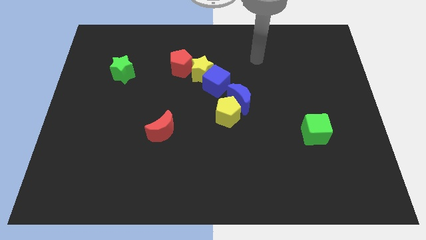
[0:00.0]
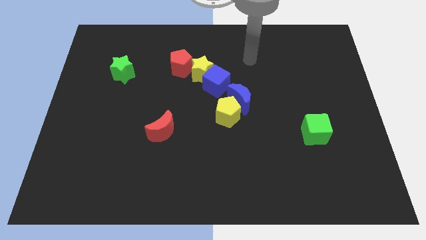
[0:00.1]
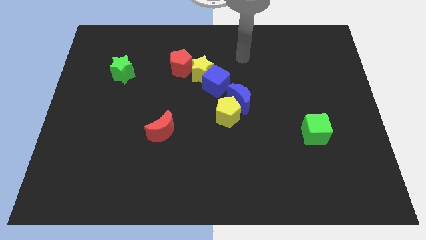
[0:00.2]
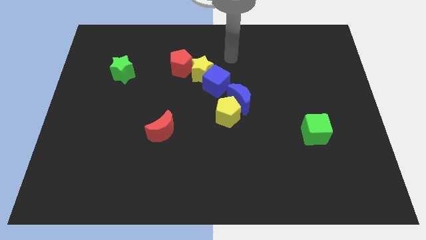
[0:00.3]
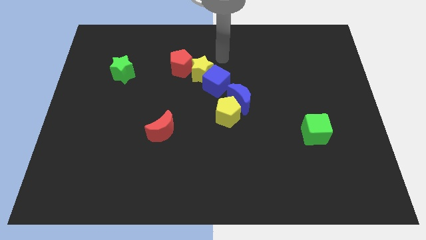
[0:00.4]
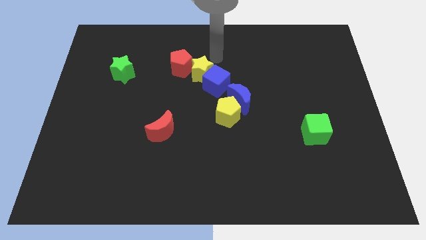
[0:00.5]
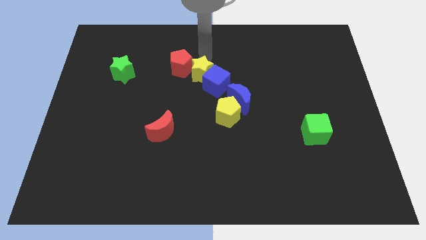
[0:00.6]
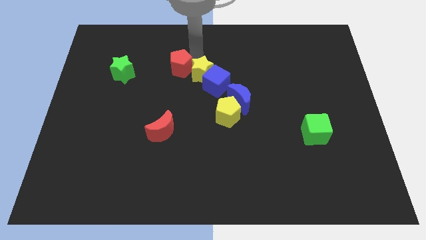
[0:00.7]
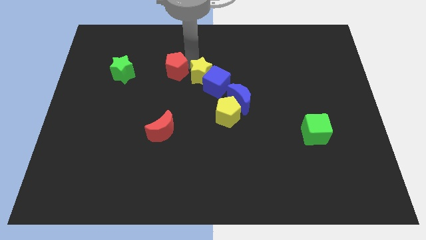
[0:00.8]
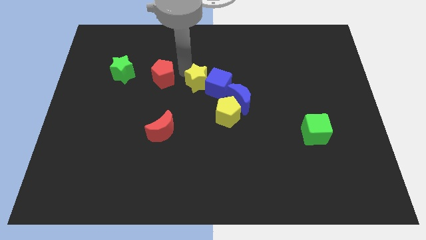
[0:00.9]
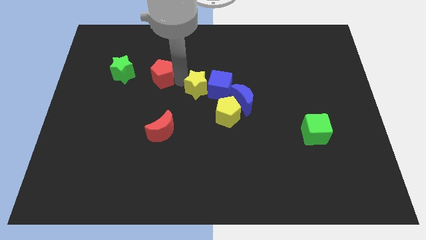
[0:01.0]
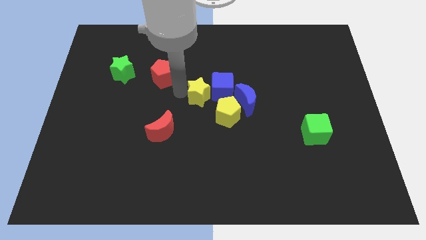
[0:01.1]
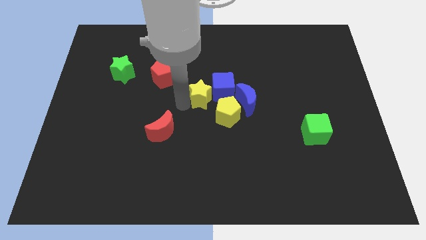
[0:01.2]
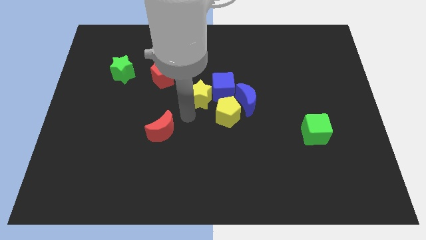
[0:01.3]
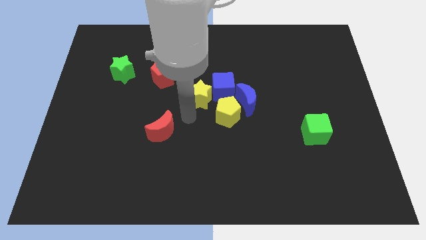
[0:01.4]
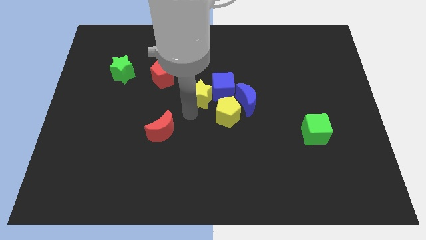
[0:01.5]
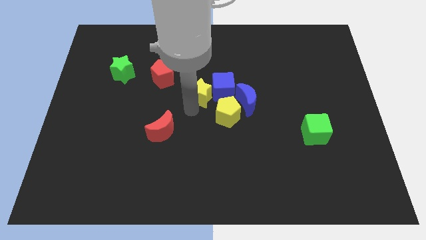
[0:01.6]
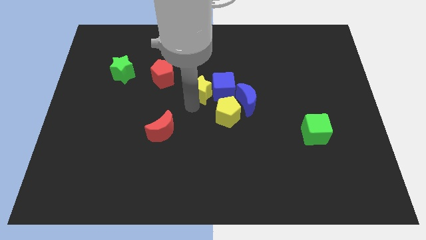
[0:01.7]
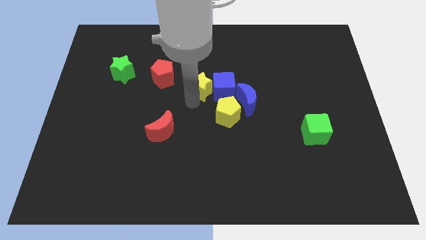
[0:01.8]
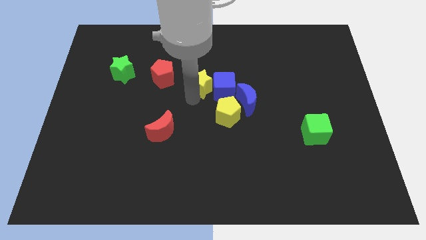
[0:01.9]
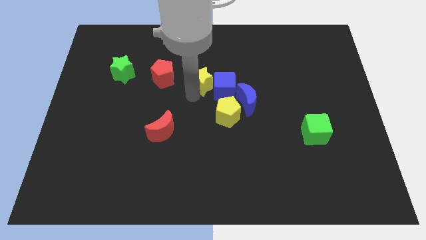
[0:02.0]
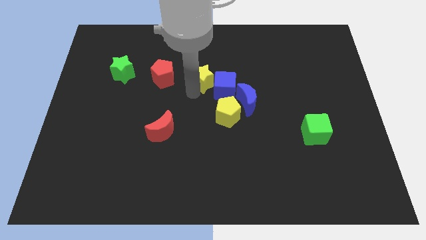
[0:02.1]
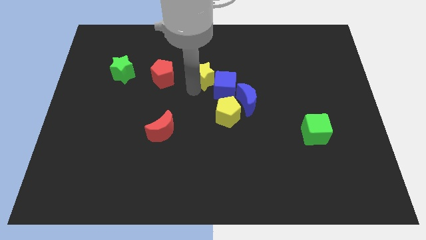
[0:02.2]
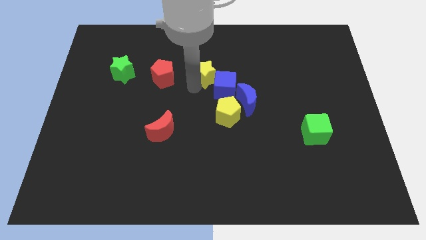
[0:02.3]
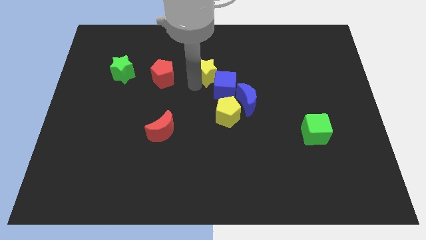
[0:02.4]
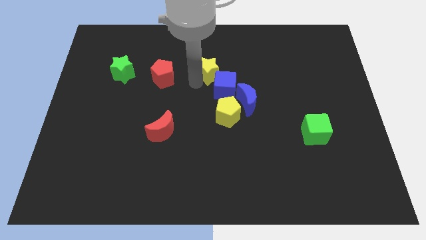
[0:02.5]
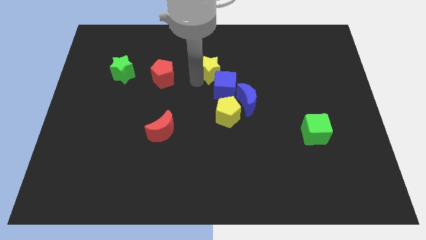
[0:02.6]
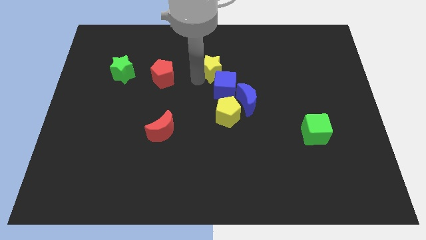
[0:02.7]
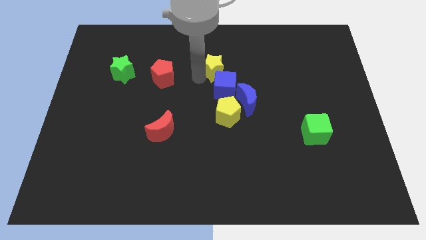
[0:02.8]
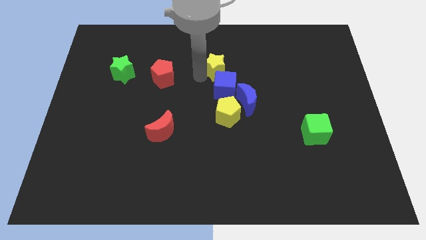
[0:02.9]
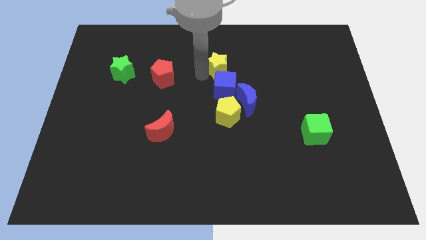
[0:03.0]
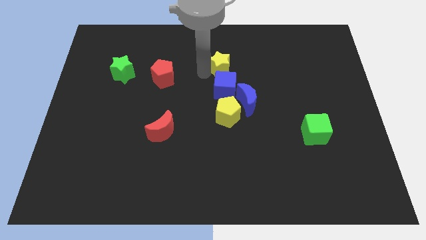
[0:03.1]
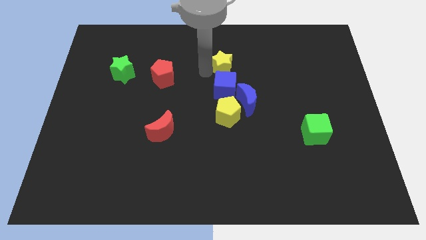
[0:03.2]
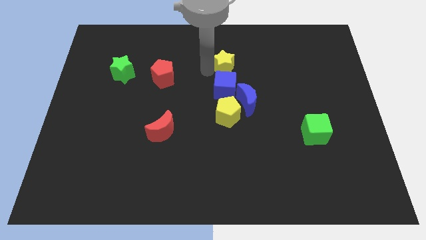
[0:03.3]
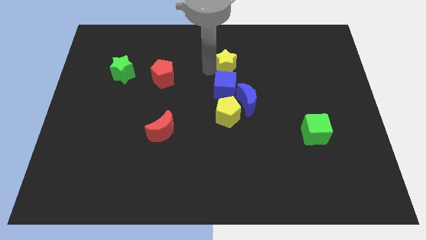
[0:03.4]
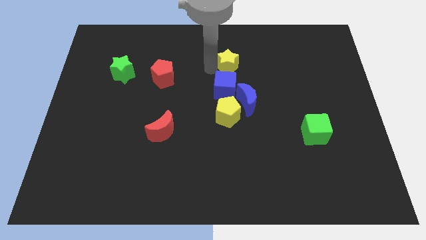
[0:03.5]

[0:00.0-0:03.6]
move the yellow star away from the blue cube and red pentagon

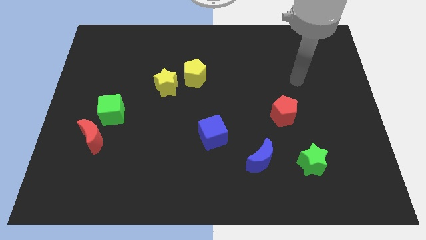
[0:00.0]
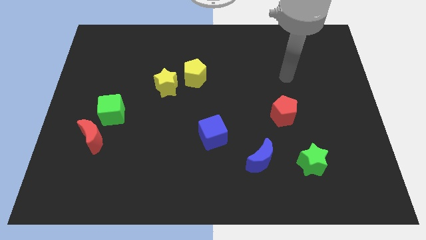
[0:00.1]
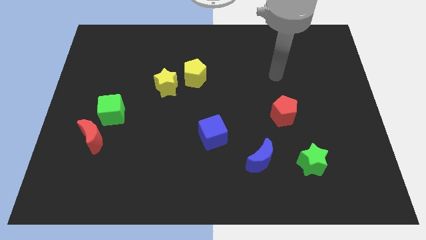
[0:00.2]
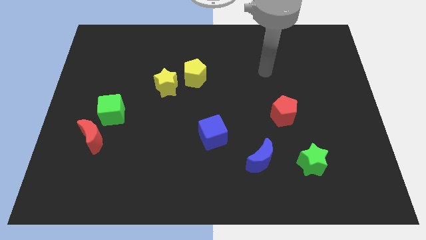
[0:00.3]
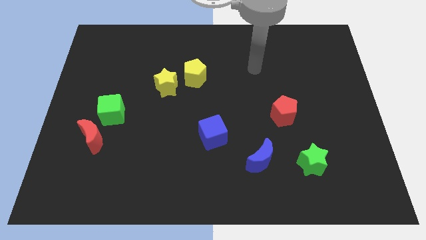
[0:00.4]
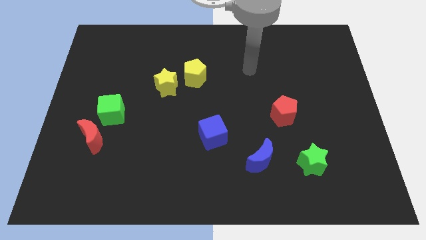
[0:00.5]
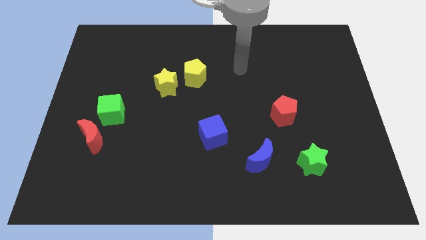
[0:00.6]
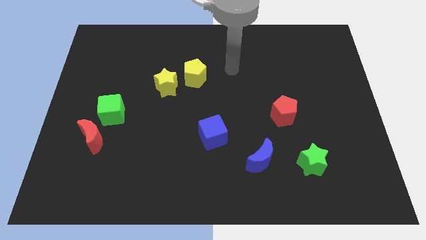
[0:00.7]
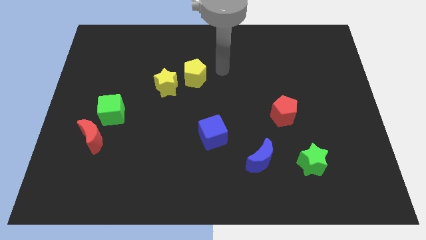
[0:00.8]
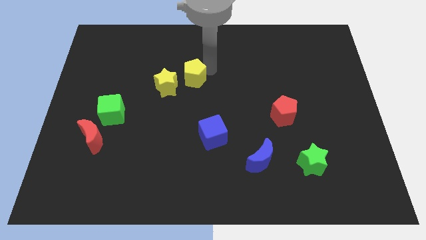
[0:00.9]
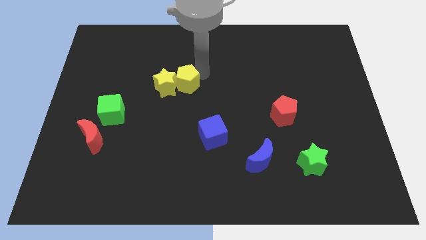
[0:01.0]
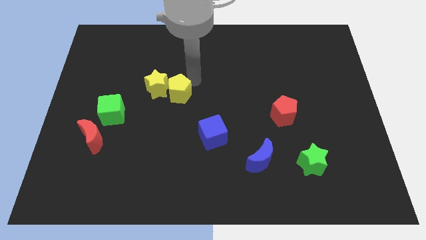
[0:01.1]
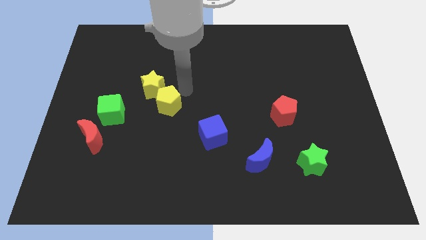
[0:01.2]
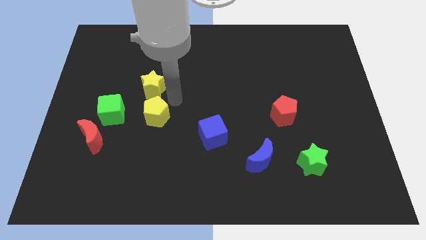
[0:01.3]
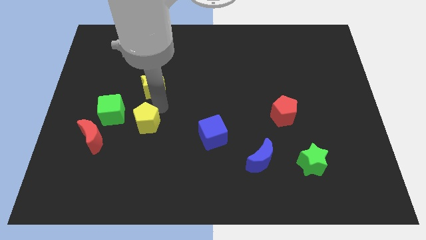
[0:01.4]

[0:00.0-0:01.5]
move the yellow star away from the yellow pentagon

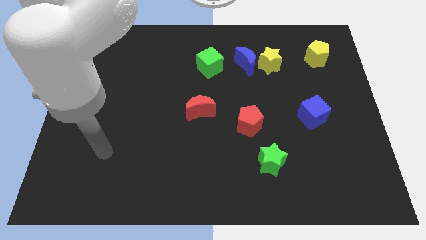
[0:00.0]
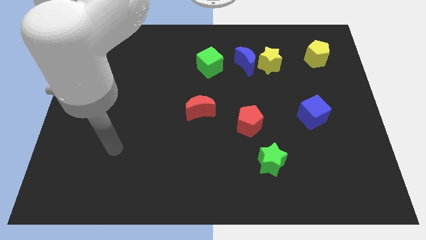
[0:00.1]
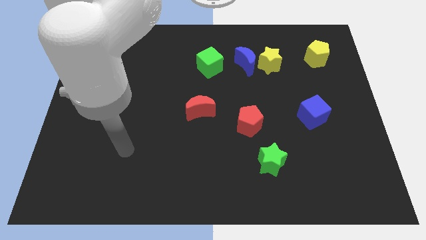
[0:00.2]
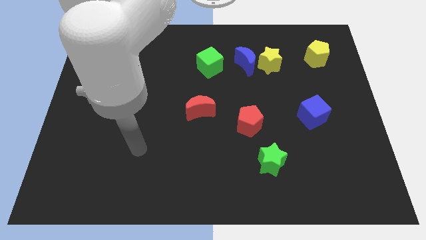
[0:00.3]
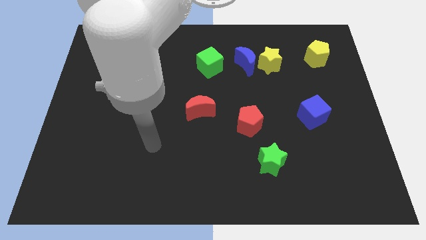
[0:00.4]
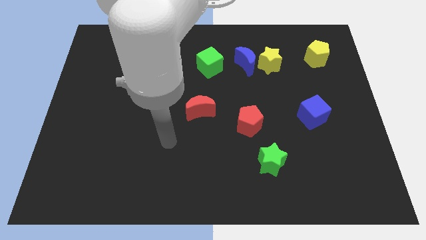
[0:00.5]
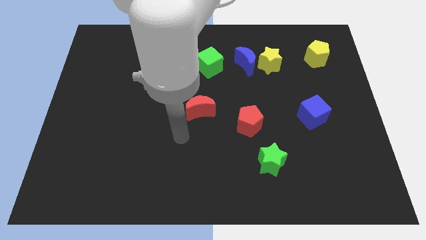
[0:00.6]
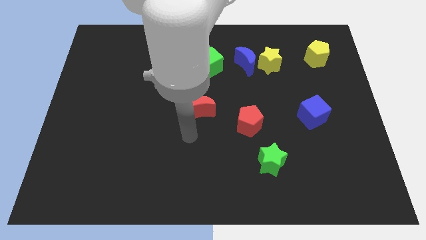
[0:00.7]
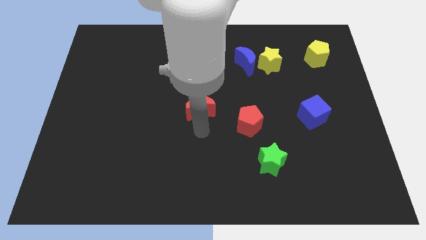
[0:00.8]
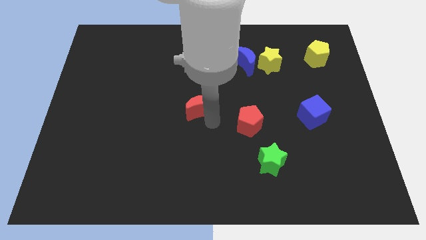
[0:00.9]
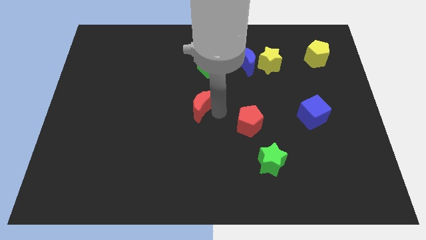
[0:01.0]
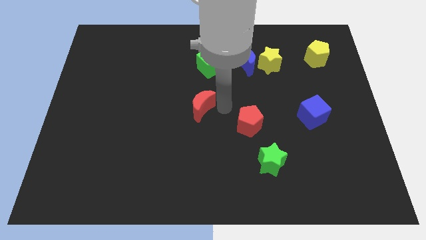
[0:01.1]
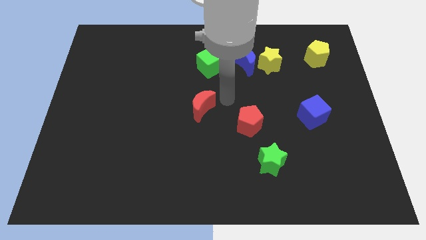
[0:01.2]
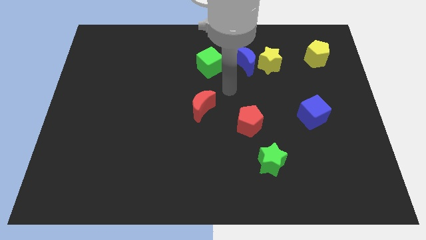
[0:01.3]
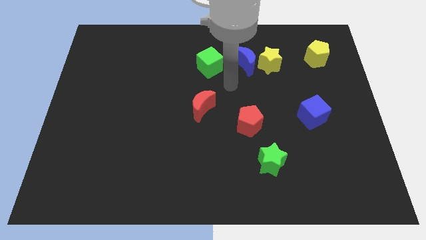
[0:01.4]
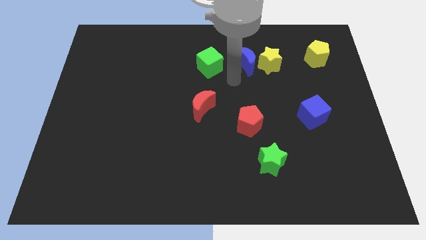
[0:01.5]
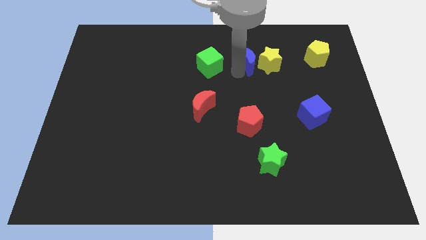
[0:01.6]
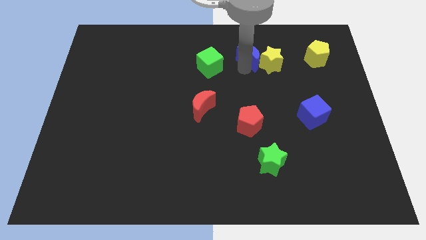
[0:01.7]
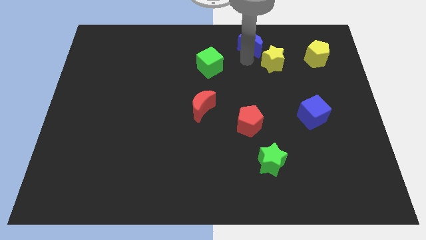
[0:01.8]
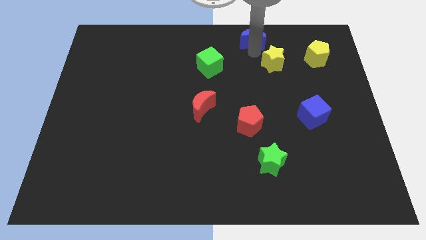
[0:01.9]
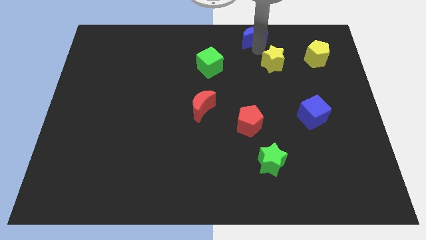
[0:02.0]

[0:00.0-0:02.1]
separate the yellow star from the blue moon

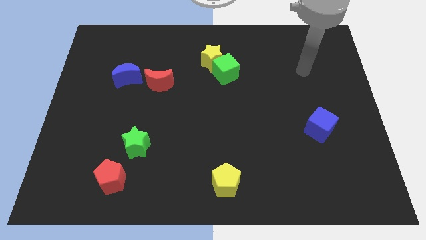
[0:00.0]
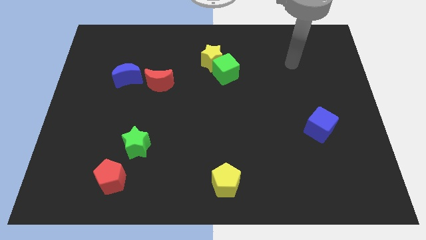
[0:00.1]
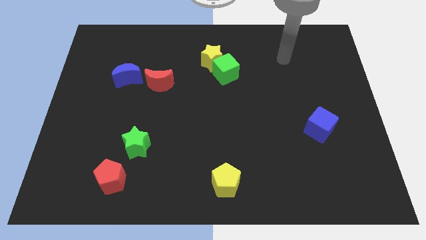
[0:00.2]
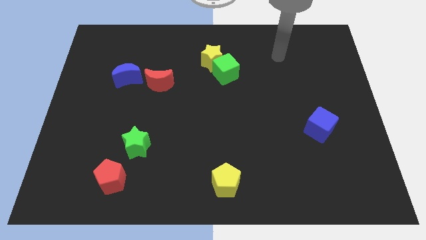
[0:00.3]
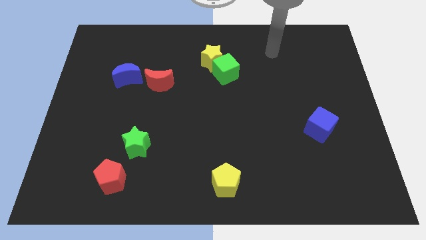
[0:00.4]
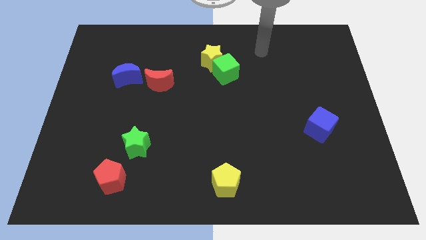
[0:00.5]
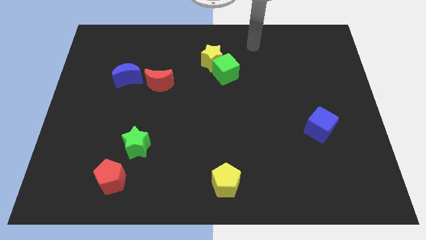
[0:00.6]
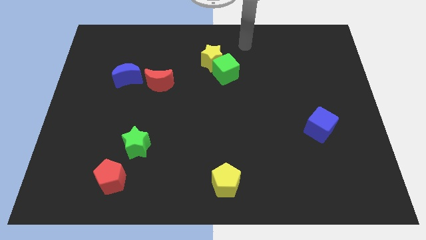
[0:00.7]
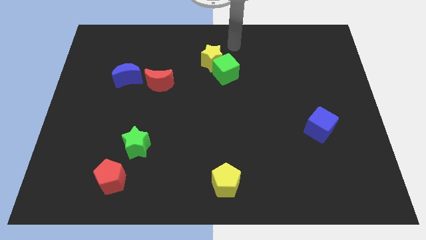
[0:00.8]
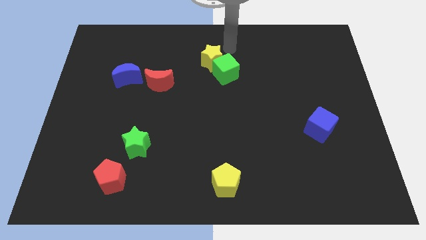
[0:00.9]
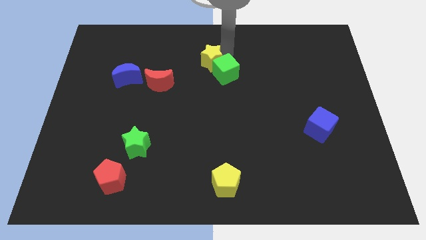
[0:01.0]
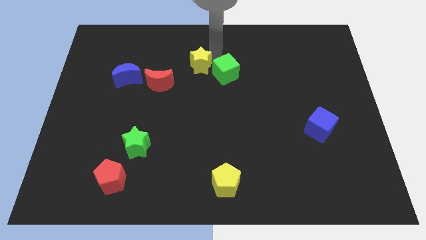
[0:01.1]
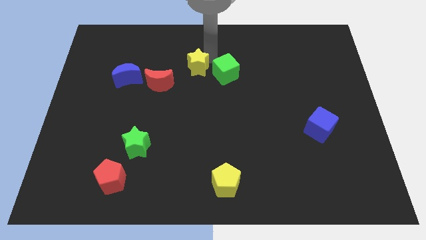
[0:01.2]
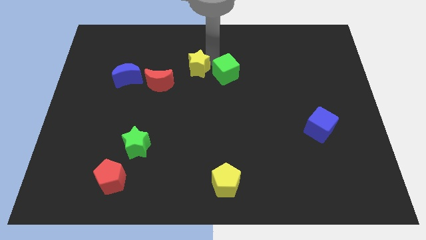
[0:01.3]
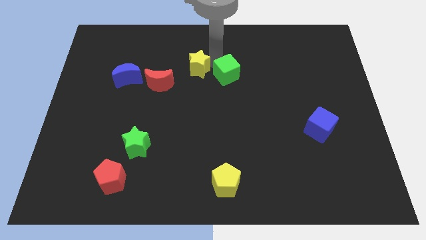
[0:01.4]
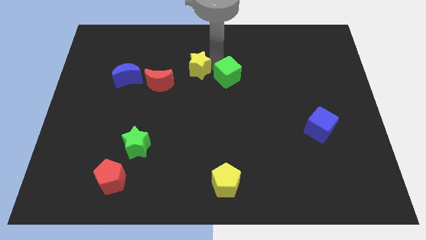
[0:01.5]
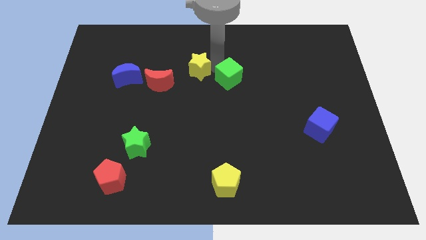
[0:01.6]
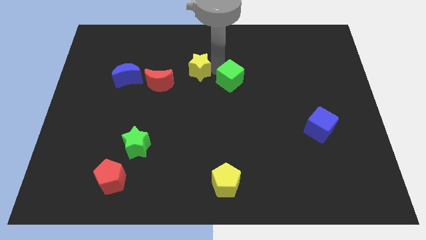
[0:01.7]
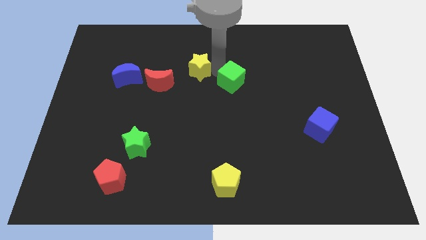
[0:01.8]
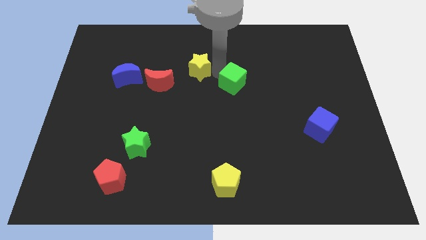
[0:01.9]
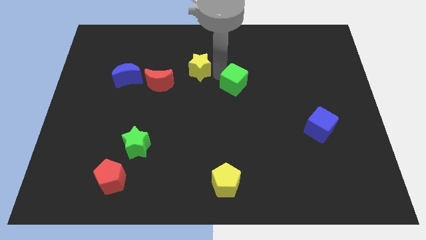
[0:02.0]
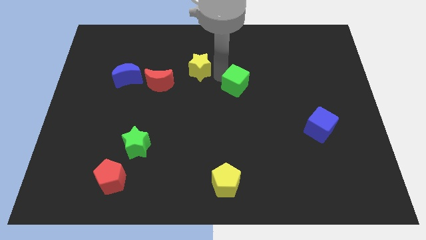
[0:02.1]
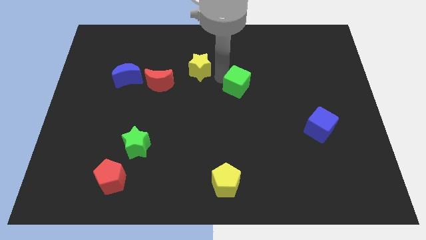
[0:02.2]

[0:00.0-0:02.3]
move the green cube away from the yellow star
